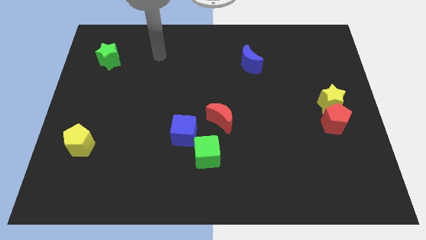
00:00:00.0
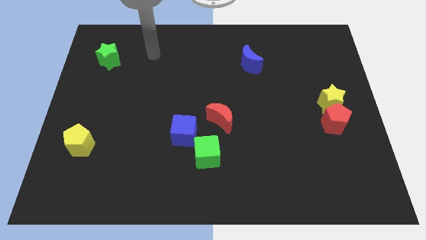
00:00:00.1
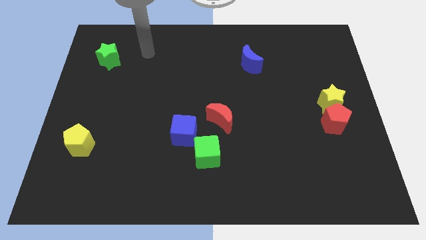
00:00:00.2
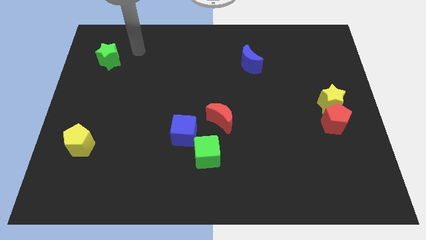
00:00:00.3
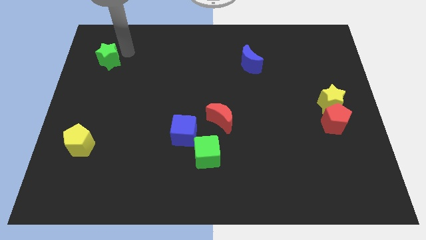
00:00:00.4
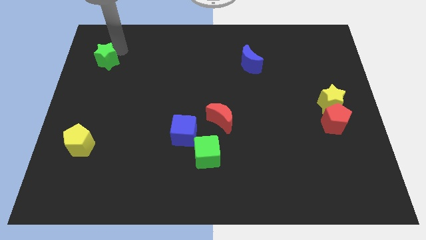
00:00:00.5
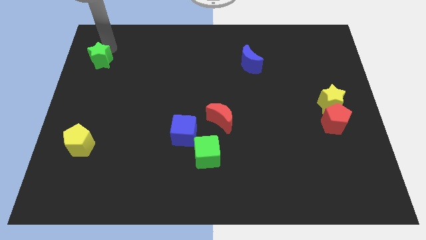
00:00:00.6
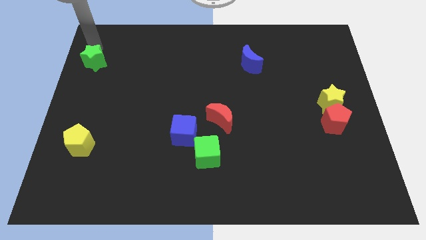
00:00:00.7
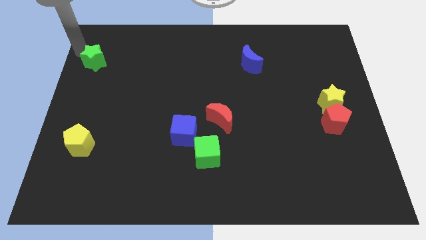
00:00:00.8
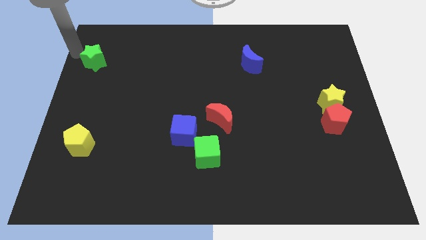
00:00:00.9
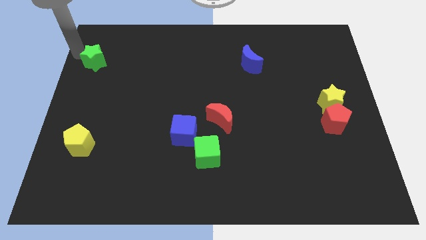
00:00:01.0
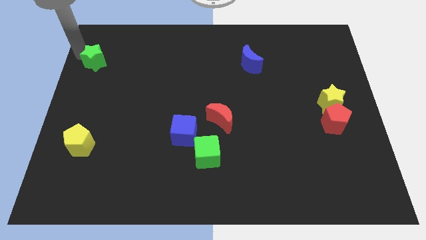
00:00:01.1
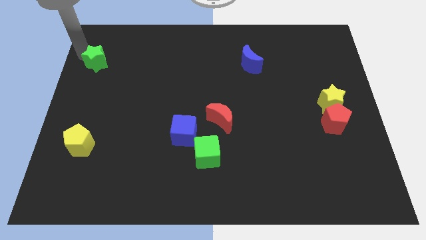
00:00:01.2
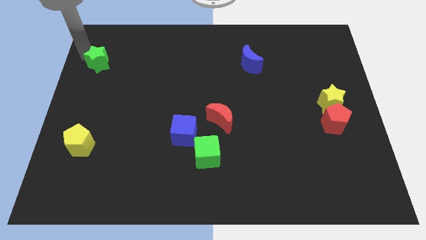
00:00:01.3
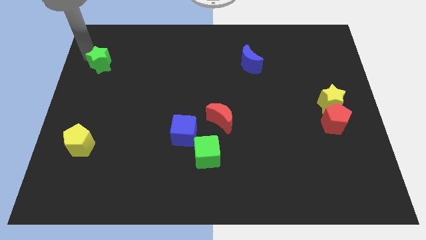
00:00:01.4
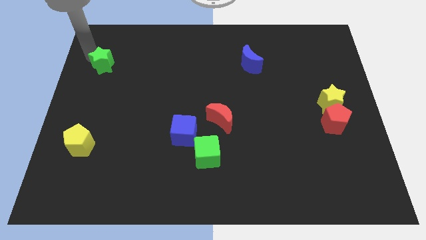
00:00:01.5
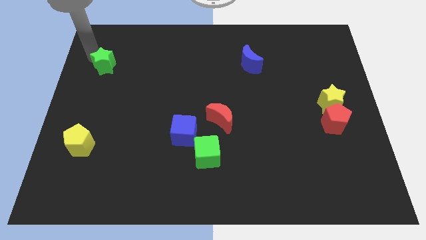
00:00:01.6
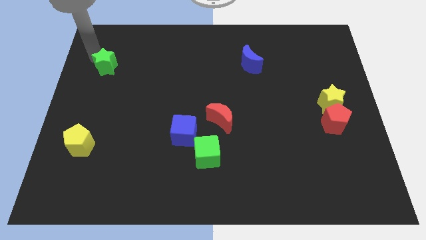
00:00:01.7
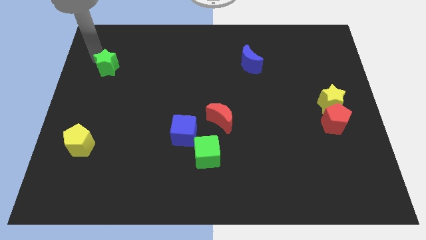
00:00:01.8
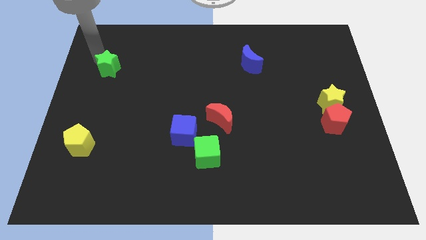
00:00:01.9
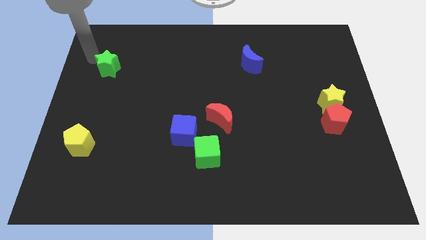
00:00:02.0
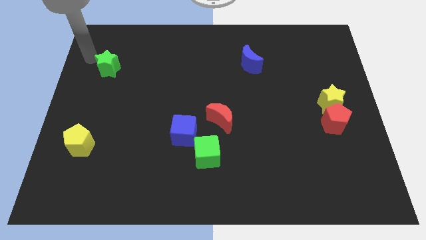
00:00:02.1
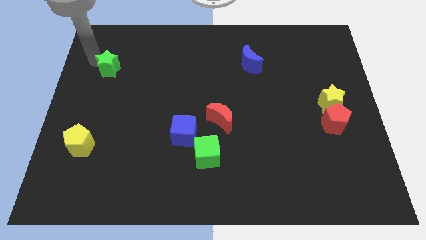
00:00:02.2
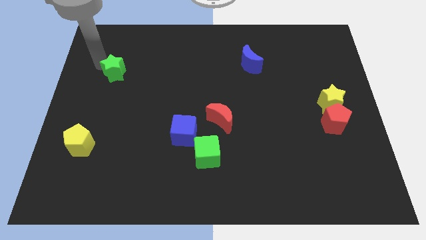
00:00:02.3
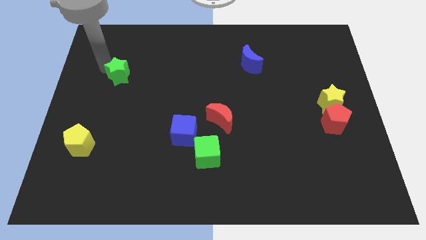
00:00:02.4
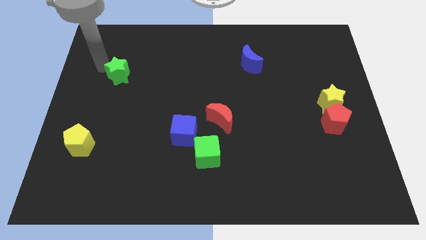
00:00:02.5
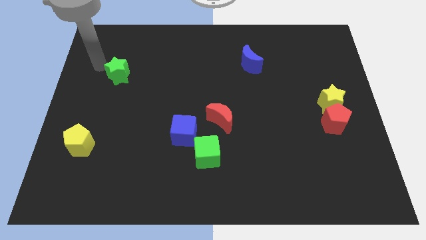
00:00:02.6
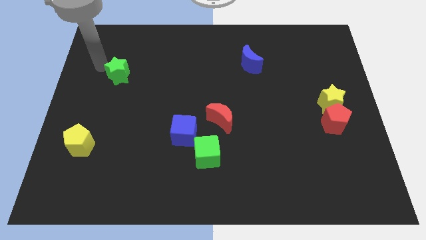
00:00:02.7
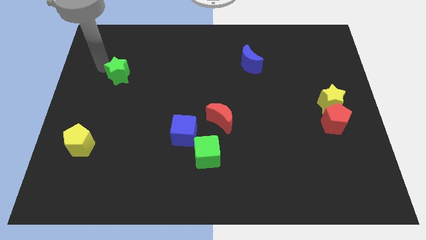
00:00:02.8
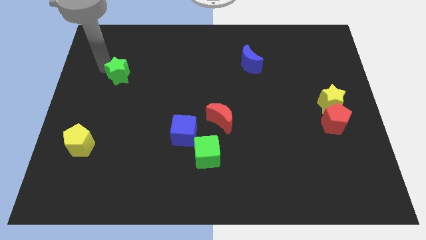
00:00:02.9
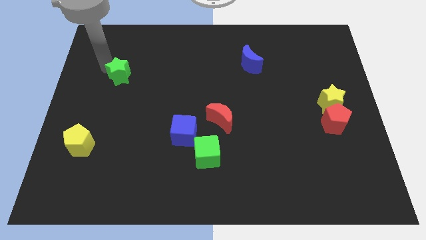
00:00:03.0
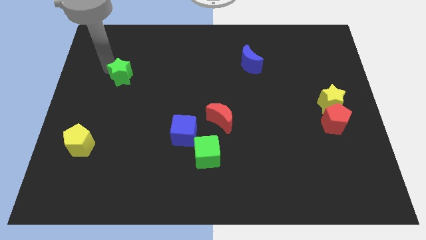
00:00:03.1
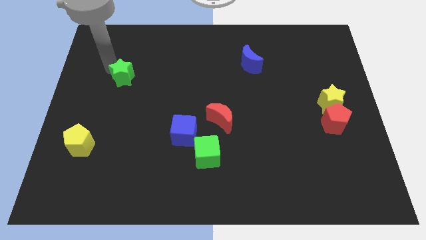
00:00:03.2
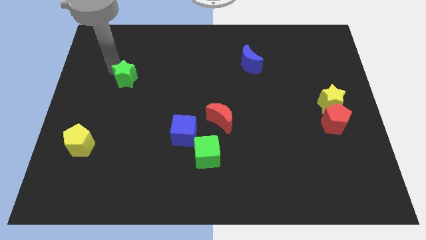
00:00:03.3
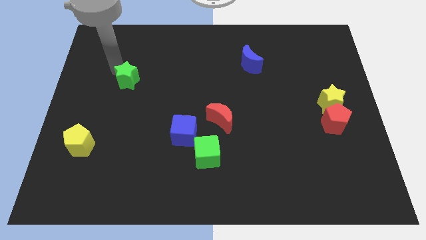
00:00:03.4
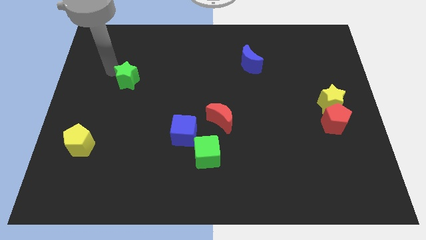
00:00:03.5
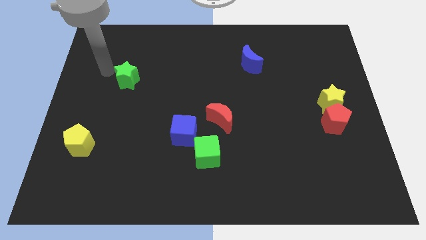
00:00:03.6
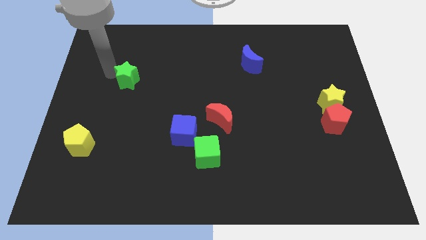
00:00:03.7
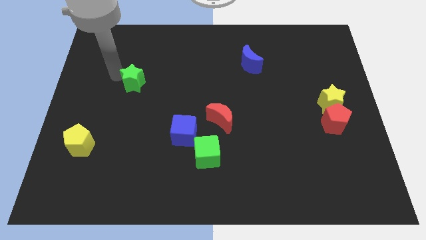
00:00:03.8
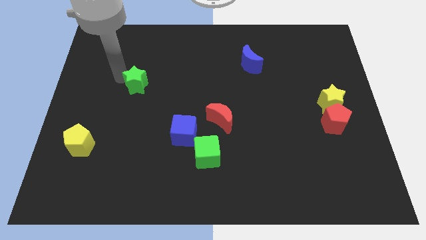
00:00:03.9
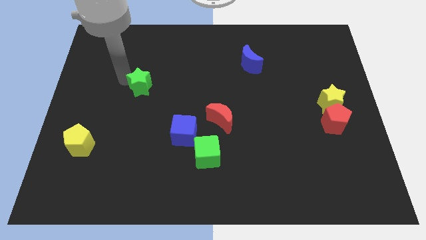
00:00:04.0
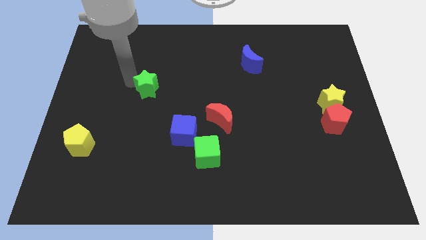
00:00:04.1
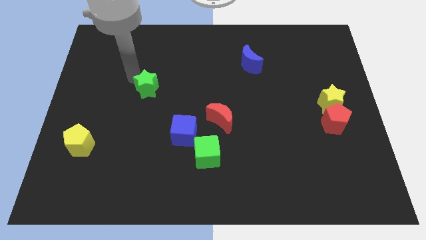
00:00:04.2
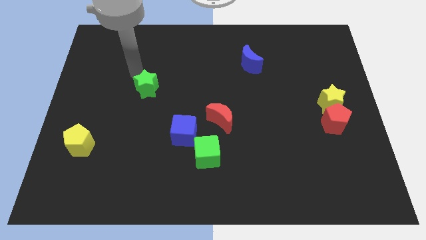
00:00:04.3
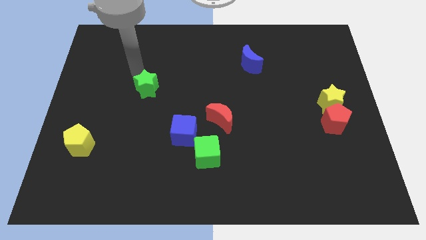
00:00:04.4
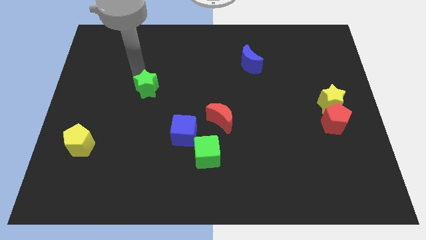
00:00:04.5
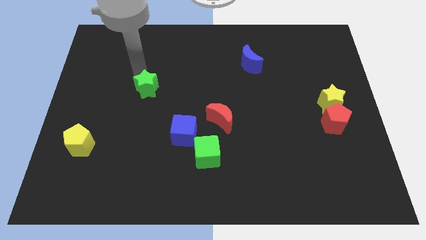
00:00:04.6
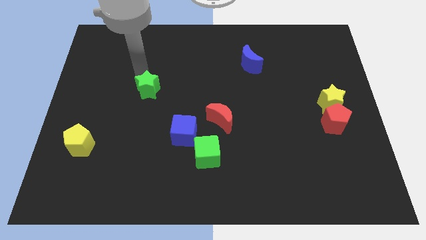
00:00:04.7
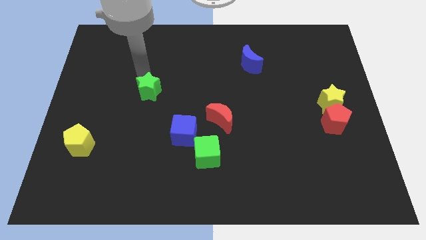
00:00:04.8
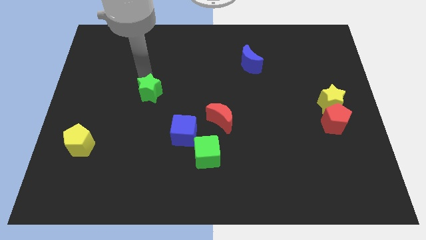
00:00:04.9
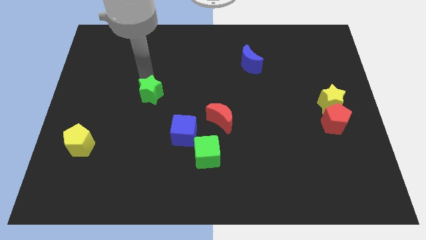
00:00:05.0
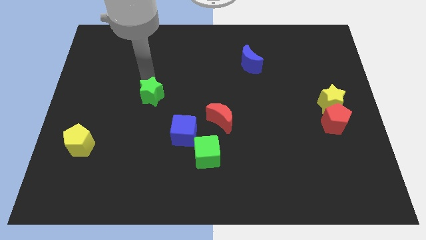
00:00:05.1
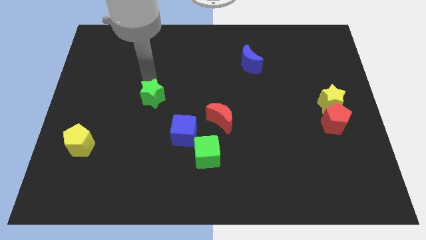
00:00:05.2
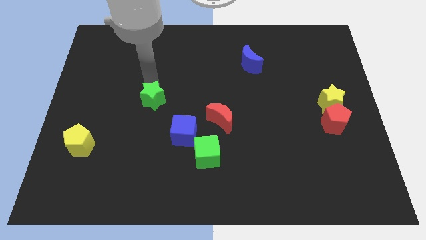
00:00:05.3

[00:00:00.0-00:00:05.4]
put the green star to the top left side of the blue cube

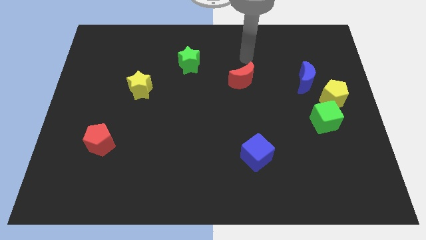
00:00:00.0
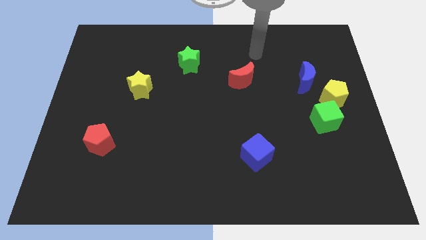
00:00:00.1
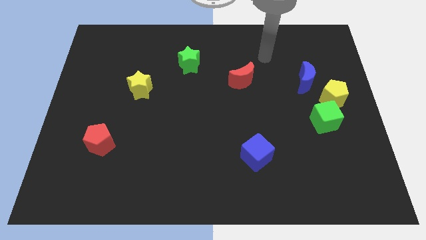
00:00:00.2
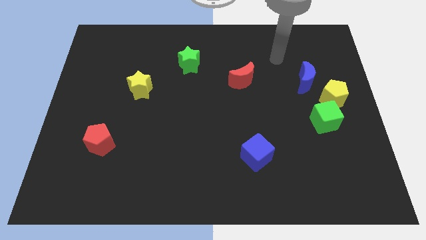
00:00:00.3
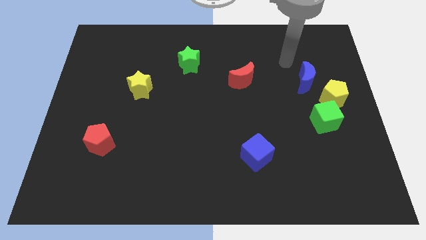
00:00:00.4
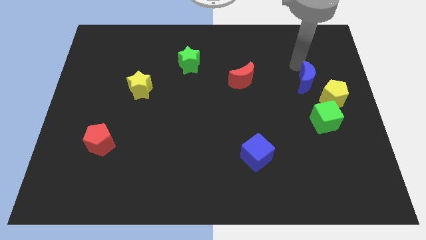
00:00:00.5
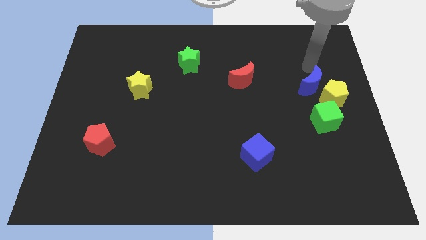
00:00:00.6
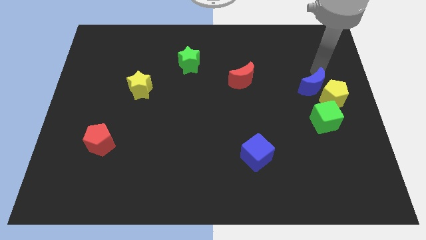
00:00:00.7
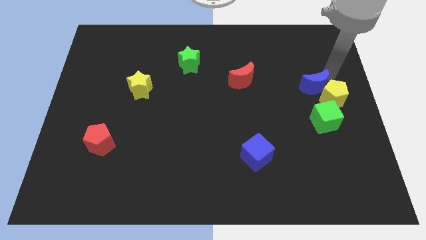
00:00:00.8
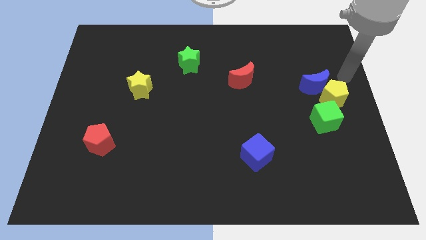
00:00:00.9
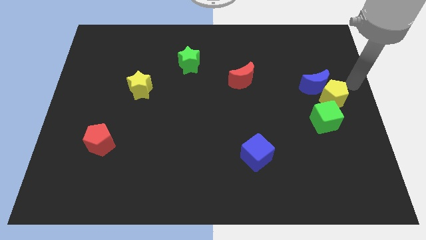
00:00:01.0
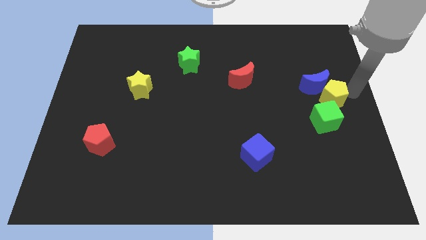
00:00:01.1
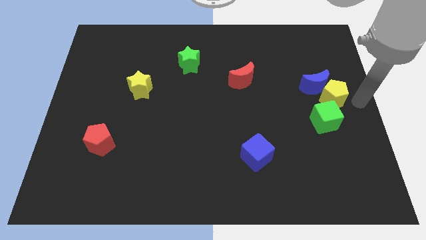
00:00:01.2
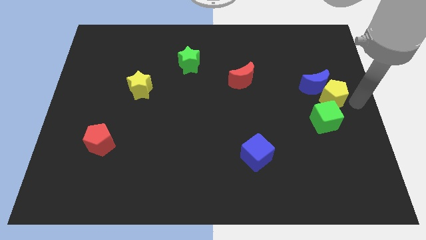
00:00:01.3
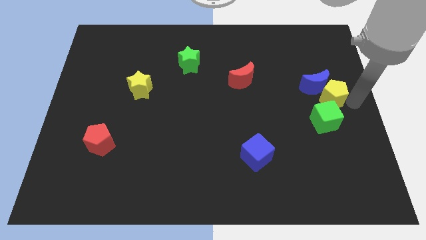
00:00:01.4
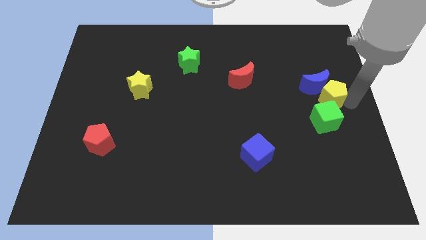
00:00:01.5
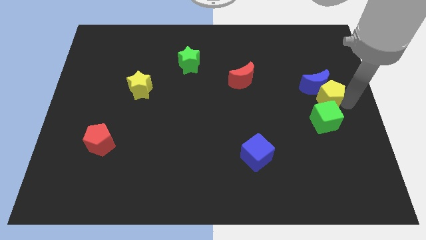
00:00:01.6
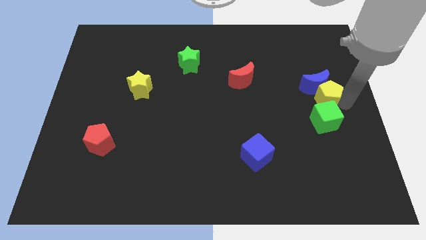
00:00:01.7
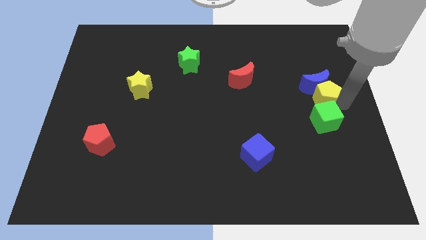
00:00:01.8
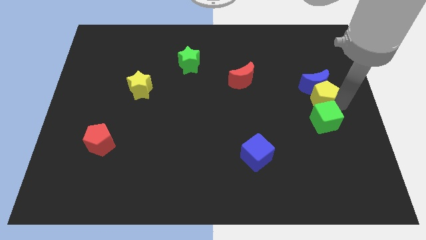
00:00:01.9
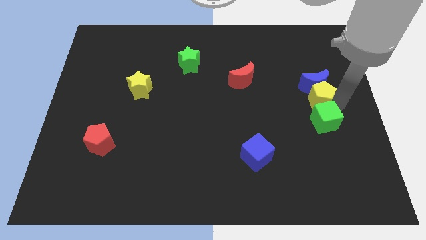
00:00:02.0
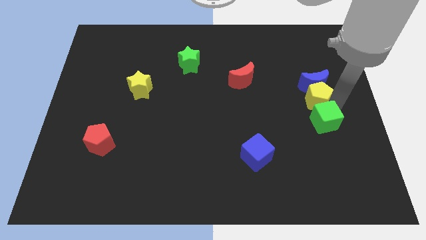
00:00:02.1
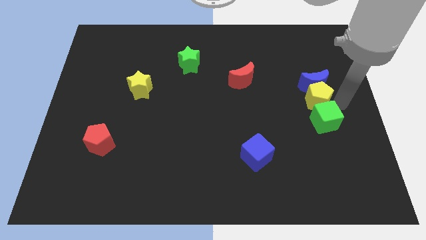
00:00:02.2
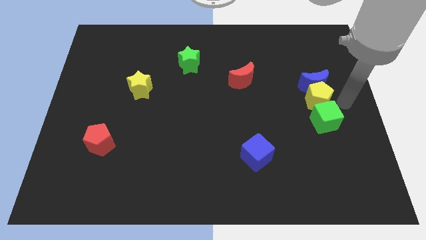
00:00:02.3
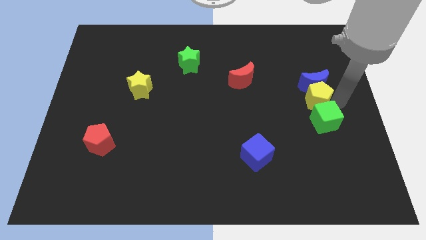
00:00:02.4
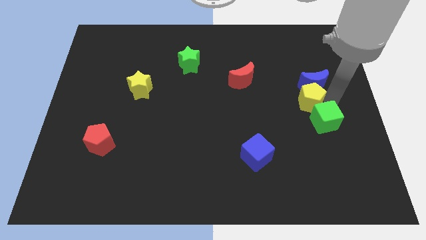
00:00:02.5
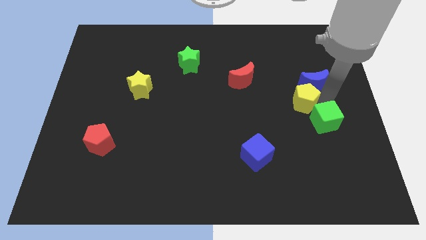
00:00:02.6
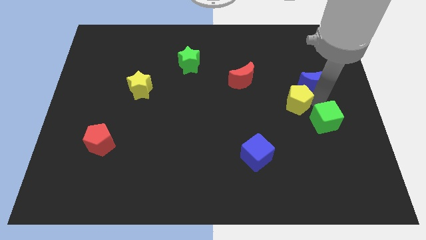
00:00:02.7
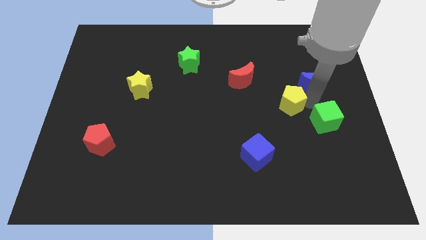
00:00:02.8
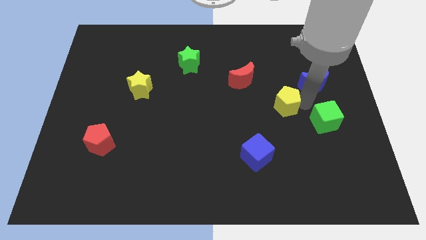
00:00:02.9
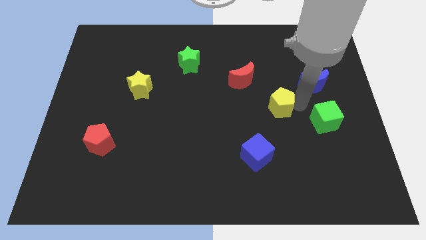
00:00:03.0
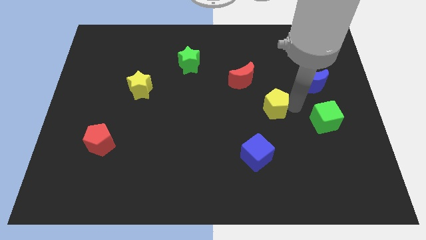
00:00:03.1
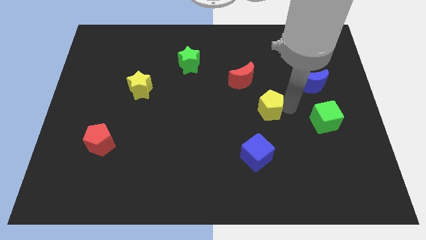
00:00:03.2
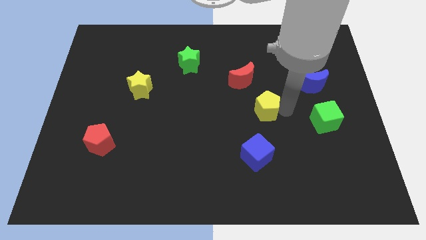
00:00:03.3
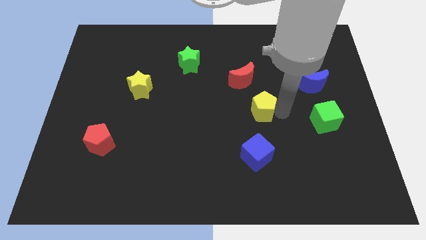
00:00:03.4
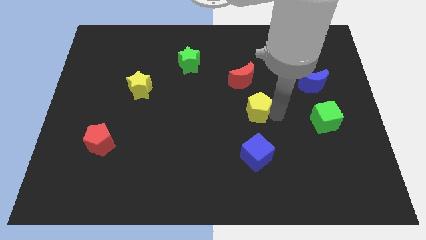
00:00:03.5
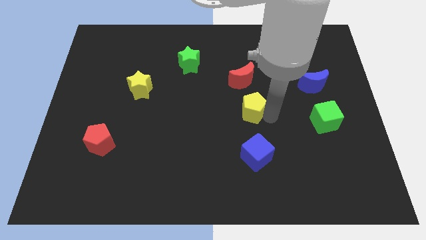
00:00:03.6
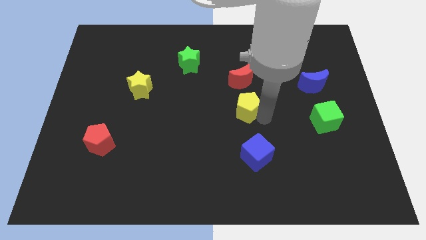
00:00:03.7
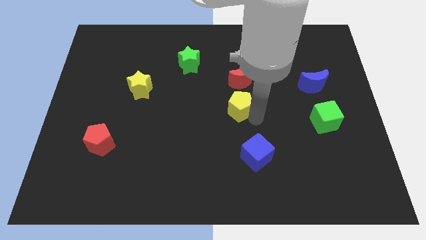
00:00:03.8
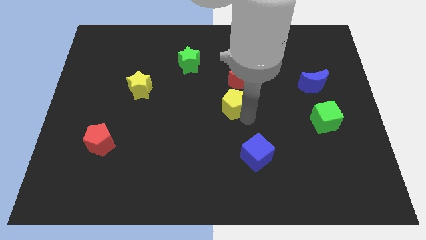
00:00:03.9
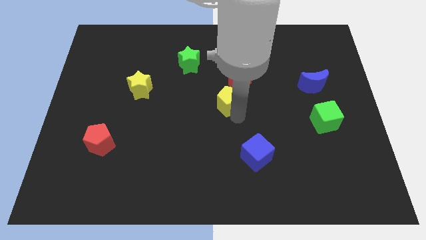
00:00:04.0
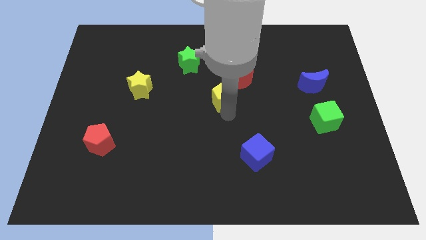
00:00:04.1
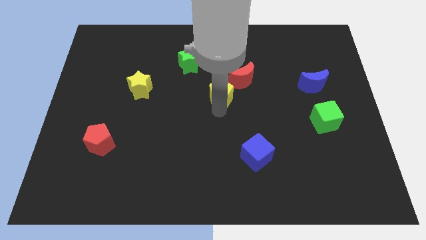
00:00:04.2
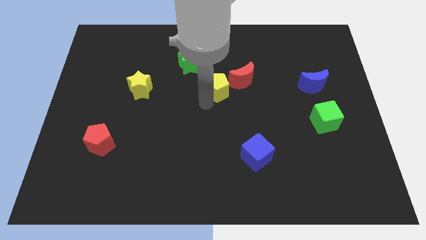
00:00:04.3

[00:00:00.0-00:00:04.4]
move the yellow pentagon diagonally down and to the right of the green star
